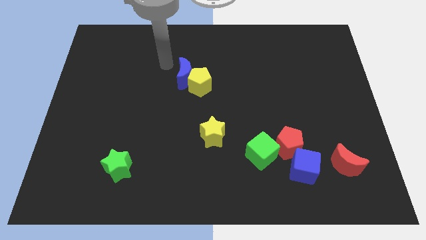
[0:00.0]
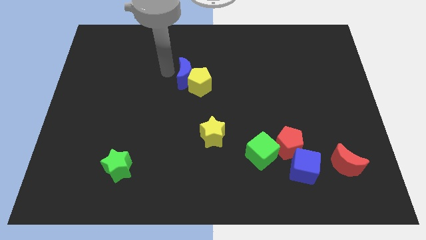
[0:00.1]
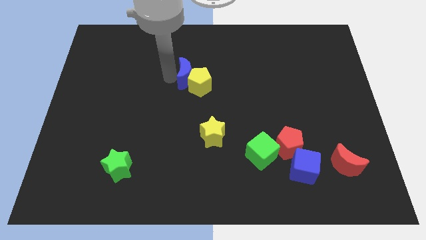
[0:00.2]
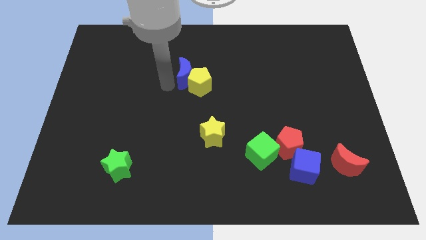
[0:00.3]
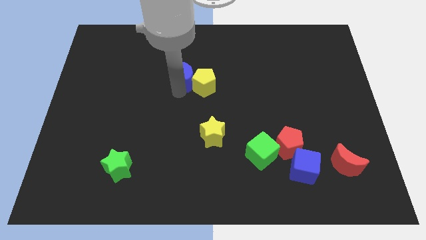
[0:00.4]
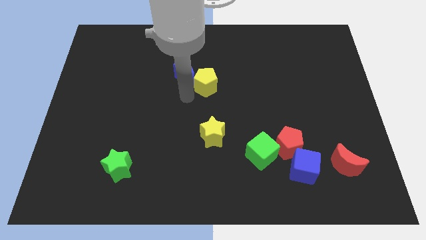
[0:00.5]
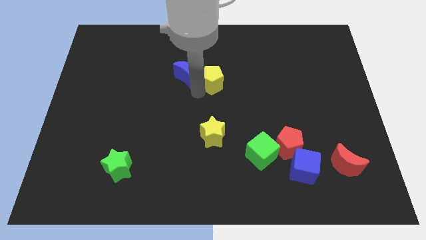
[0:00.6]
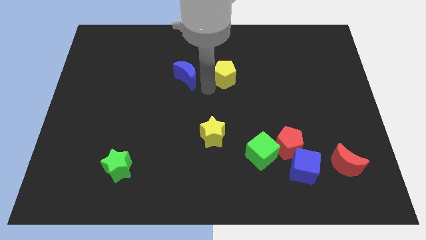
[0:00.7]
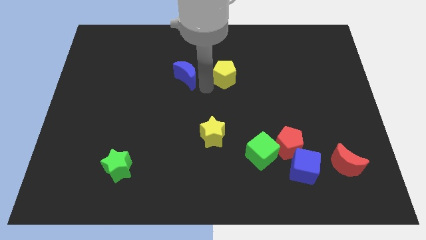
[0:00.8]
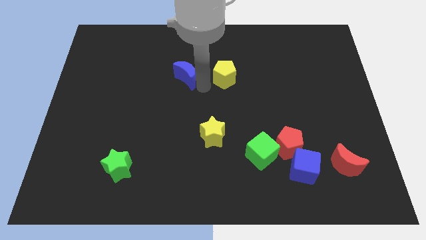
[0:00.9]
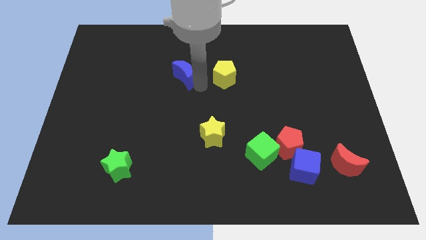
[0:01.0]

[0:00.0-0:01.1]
move the blue moon away from the yellow pentagon

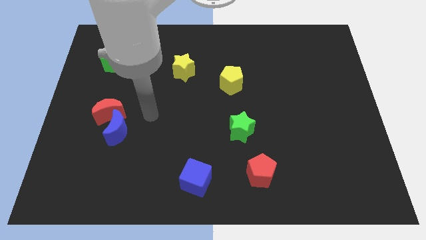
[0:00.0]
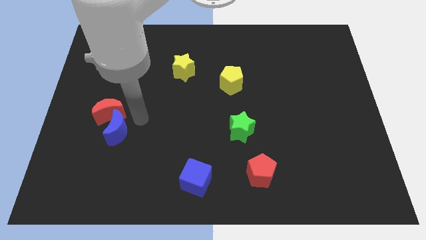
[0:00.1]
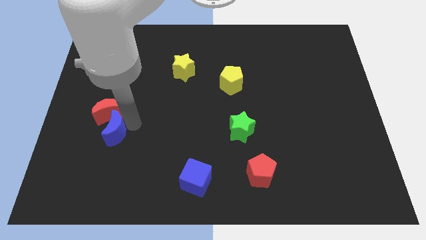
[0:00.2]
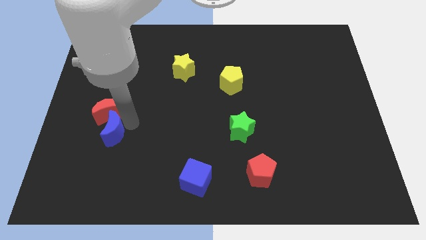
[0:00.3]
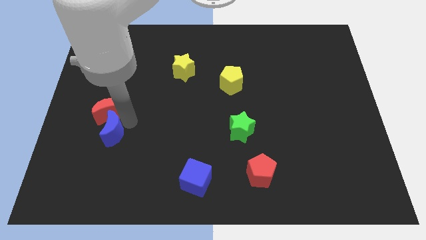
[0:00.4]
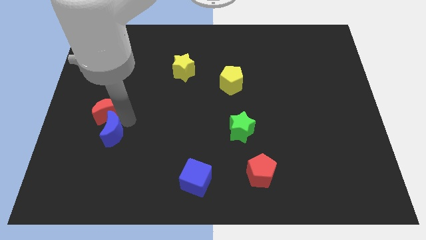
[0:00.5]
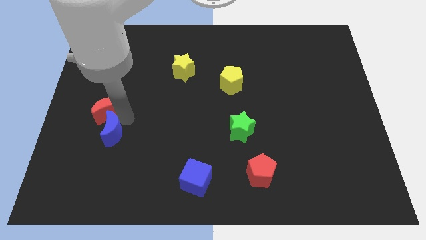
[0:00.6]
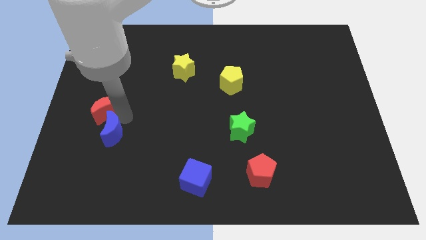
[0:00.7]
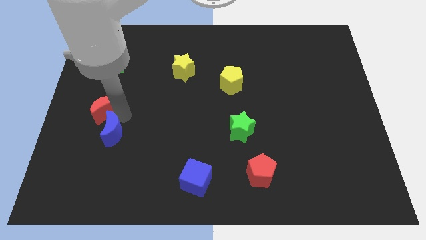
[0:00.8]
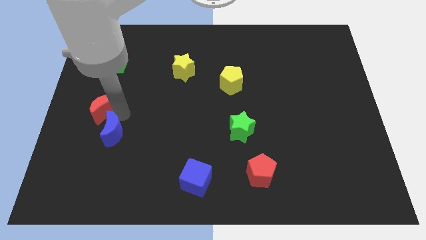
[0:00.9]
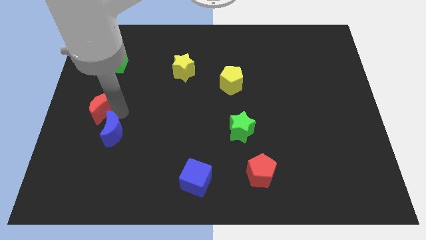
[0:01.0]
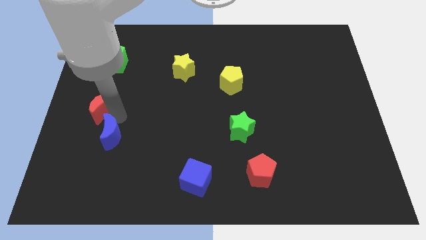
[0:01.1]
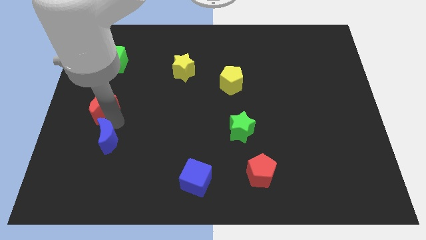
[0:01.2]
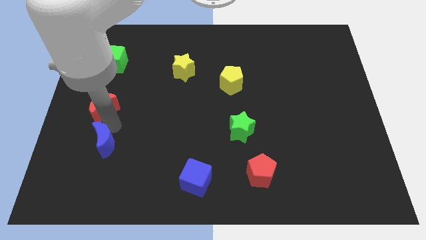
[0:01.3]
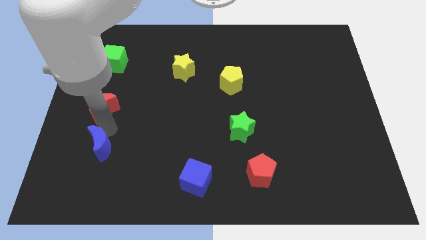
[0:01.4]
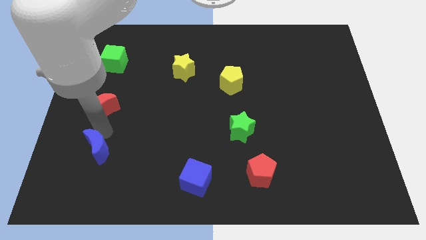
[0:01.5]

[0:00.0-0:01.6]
separate the red moon from the blue moon

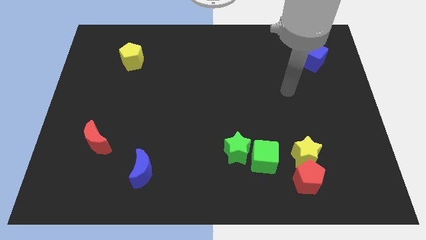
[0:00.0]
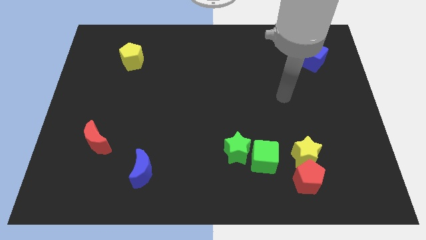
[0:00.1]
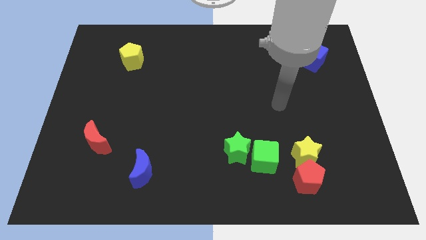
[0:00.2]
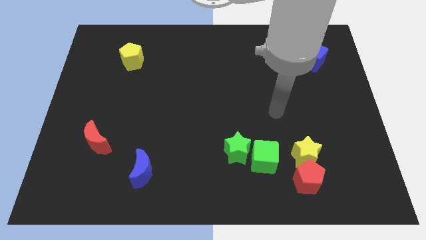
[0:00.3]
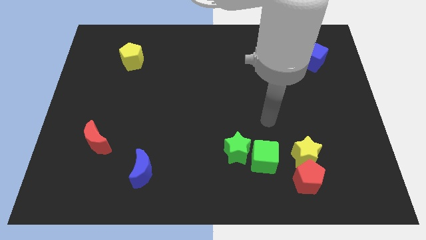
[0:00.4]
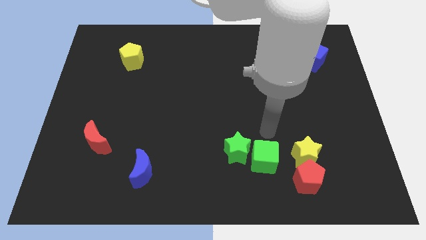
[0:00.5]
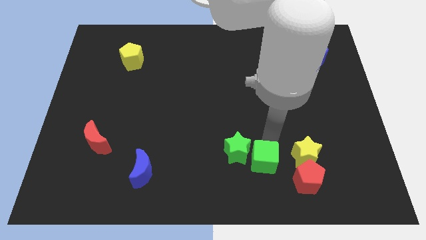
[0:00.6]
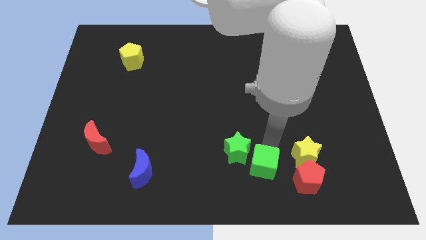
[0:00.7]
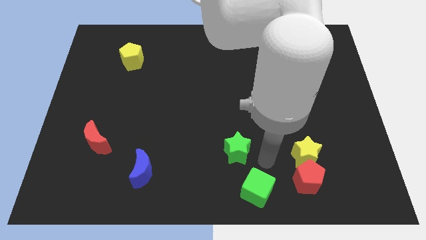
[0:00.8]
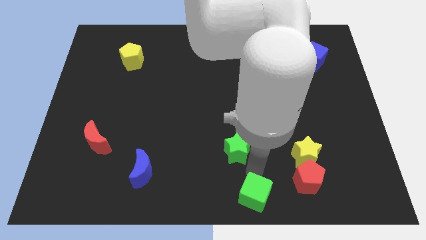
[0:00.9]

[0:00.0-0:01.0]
move the green star away from the green cube

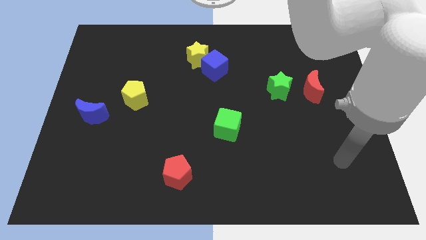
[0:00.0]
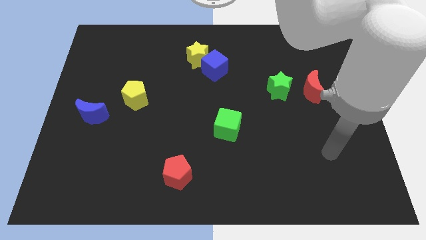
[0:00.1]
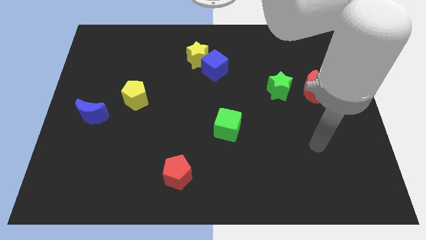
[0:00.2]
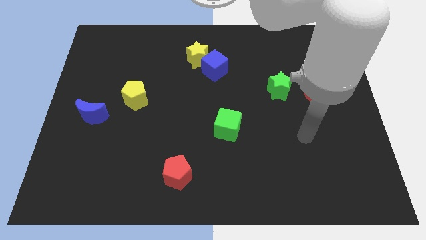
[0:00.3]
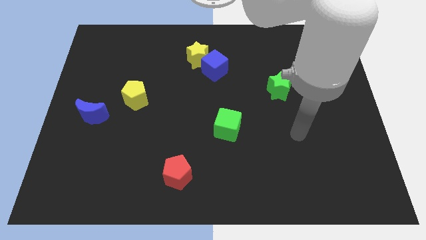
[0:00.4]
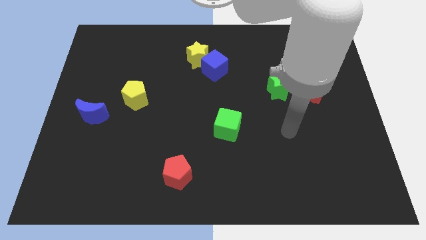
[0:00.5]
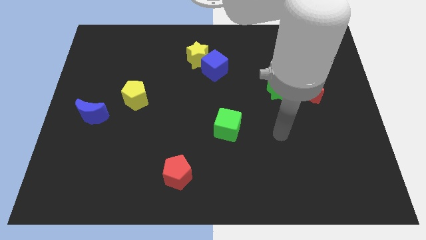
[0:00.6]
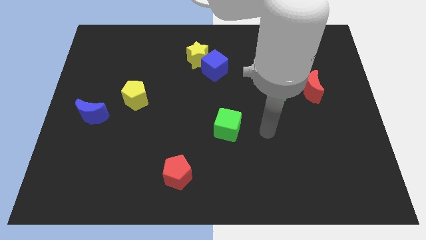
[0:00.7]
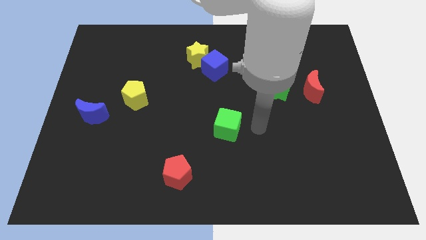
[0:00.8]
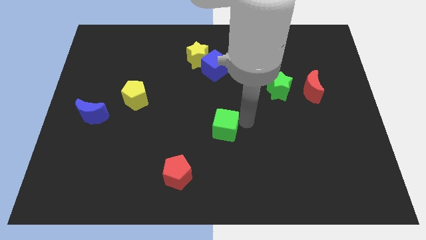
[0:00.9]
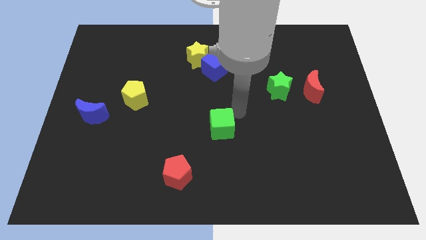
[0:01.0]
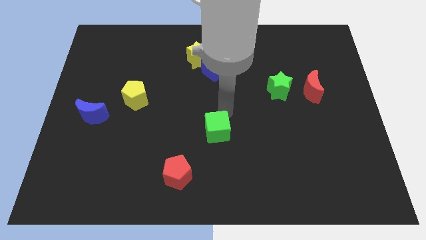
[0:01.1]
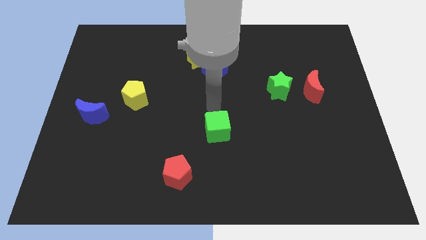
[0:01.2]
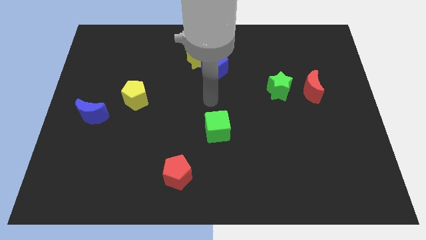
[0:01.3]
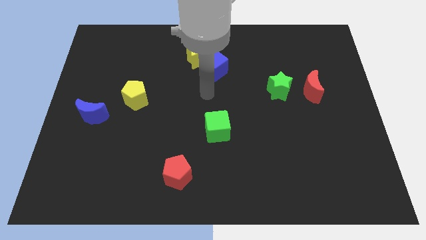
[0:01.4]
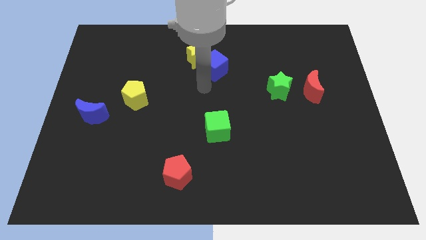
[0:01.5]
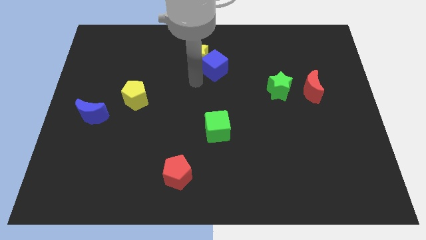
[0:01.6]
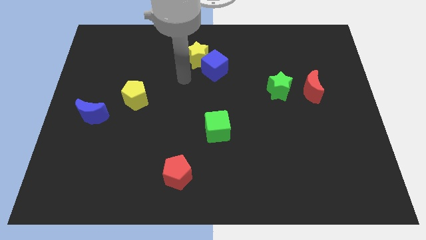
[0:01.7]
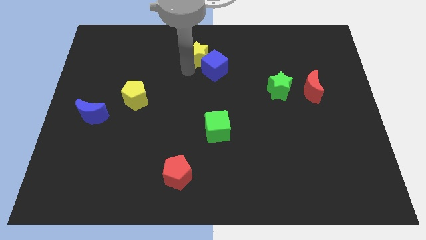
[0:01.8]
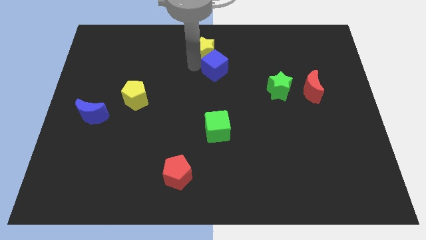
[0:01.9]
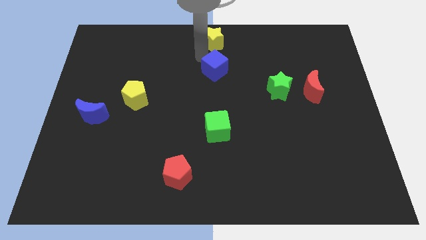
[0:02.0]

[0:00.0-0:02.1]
separate the blue cube from the yellow star

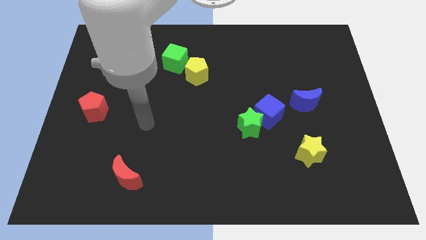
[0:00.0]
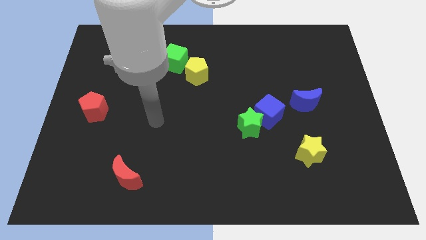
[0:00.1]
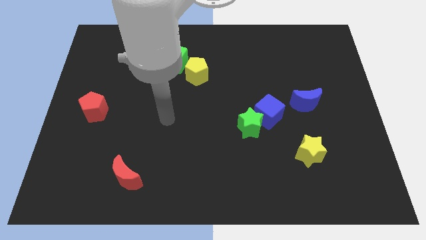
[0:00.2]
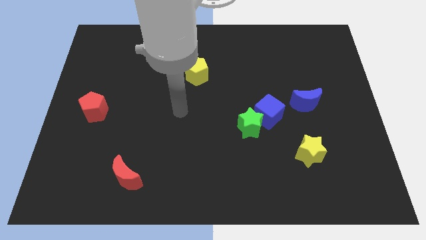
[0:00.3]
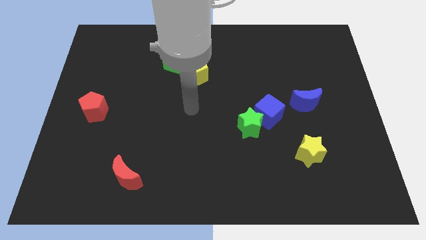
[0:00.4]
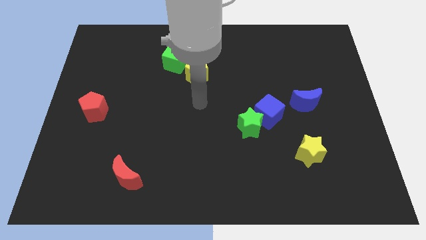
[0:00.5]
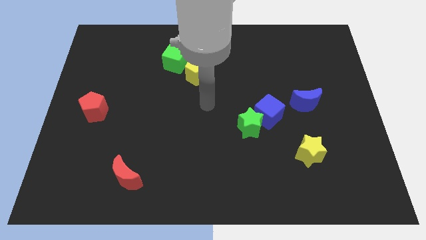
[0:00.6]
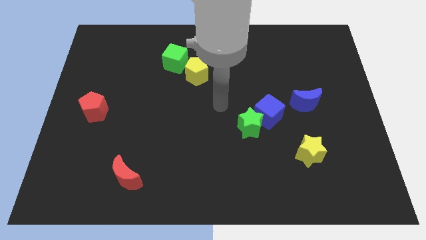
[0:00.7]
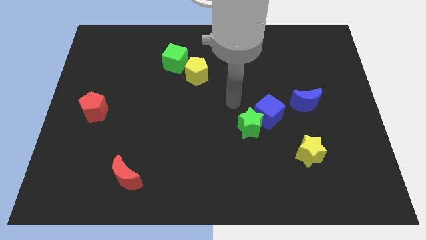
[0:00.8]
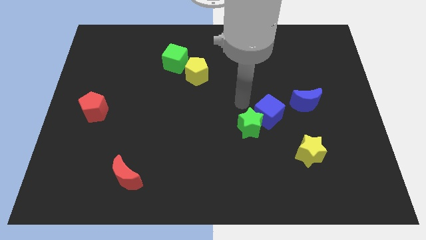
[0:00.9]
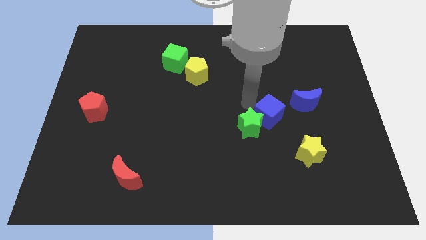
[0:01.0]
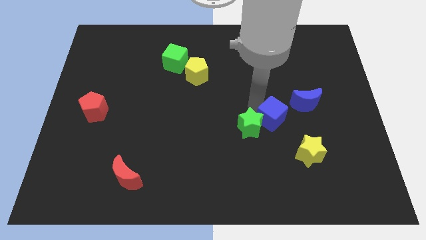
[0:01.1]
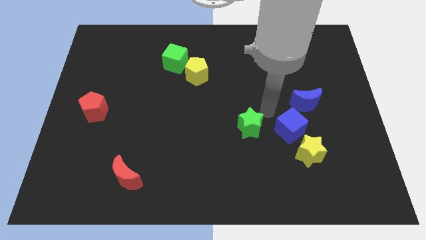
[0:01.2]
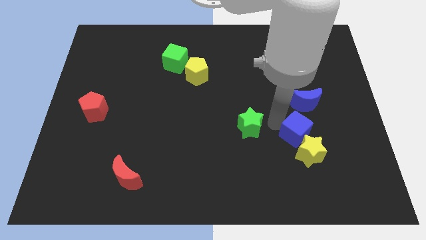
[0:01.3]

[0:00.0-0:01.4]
pull the green star apart from the blue cube

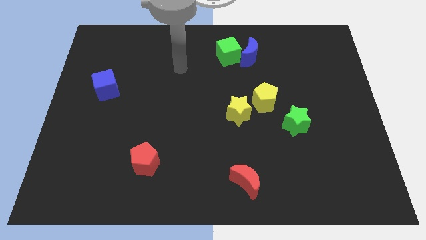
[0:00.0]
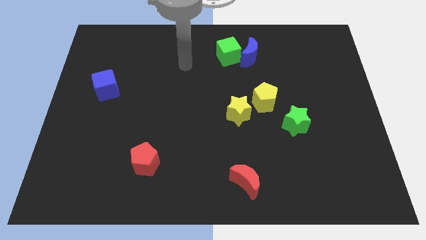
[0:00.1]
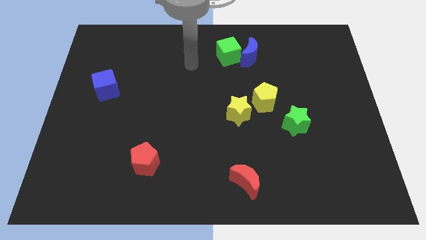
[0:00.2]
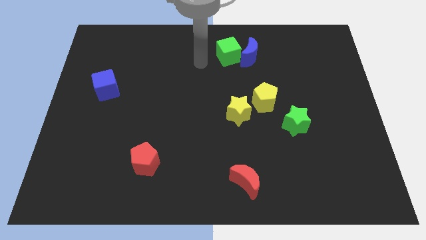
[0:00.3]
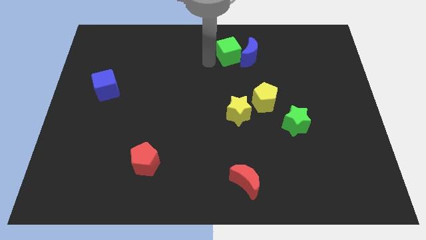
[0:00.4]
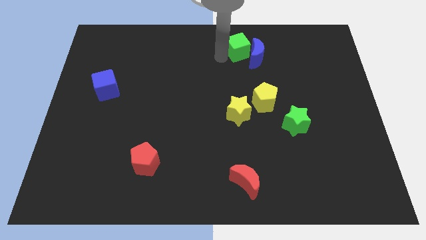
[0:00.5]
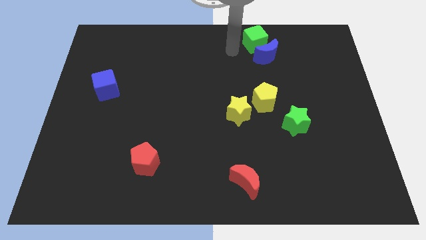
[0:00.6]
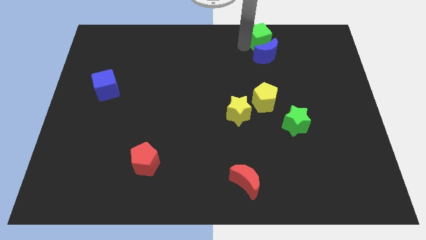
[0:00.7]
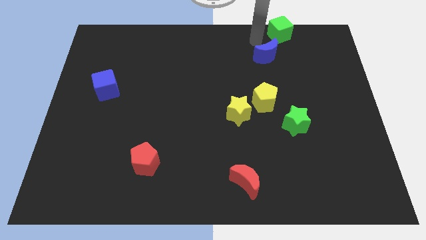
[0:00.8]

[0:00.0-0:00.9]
separate the blue moon from the green cube

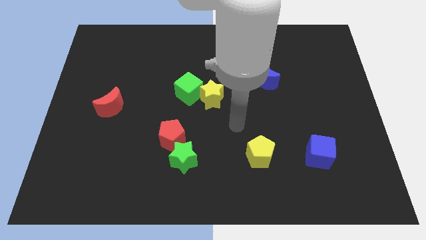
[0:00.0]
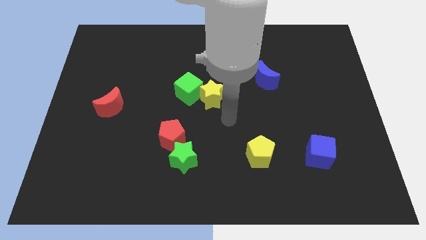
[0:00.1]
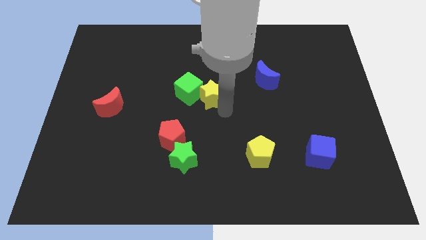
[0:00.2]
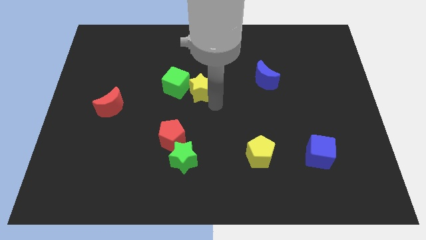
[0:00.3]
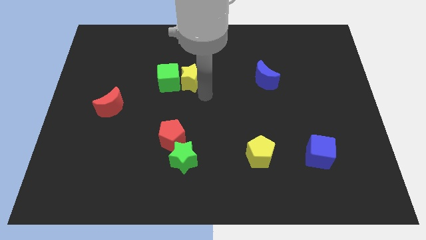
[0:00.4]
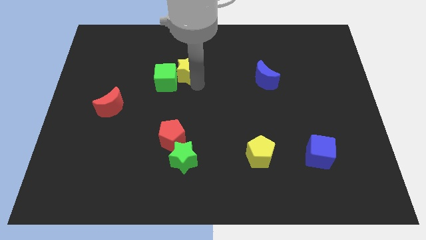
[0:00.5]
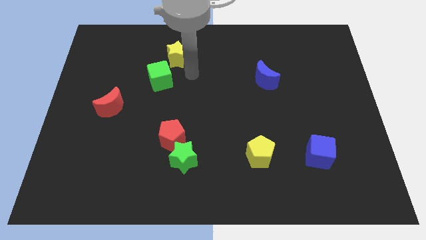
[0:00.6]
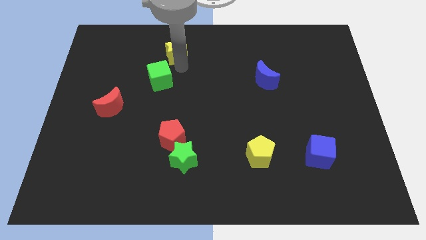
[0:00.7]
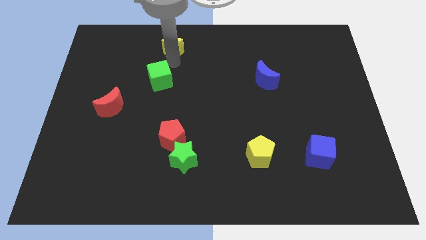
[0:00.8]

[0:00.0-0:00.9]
pull the green cube apart from the yellow star

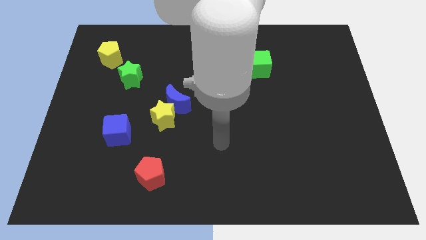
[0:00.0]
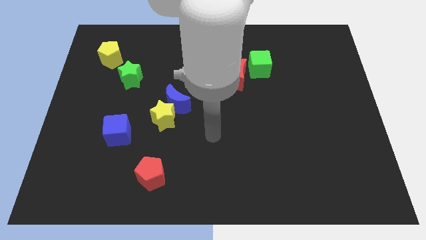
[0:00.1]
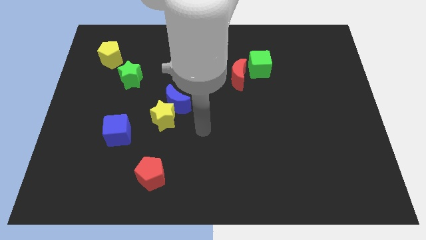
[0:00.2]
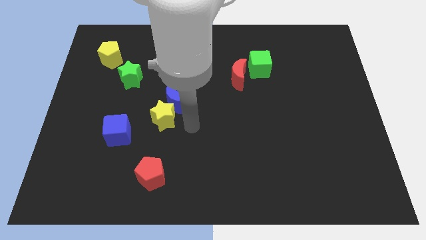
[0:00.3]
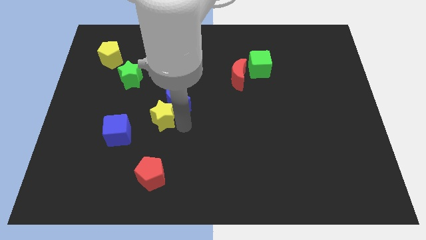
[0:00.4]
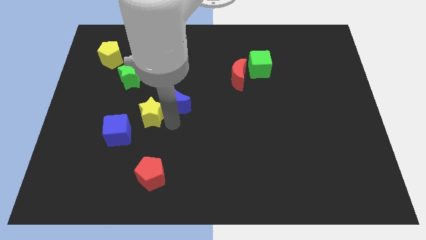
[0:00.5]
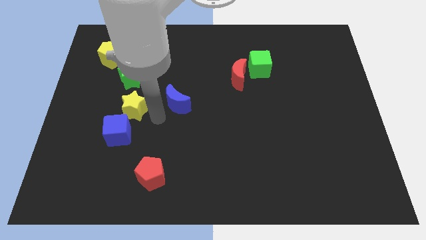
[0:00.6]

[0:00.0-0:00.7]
separate the blue moon from the yellow star
